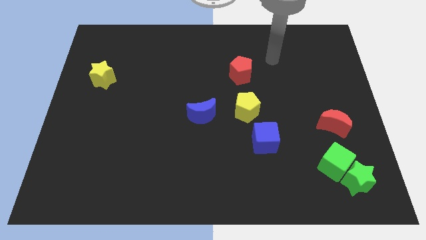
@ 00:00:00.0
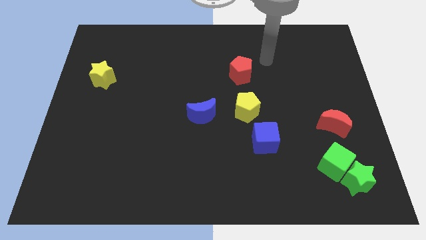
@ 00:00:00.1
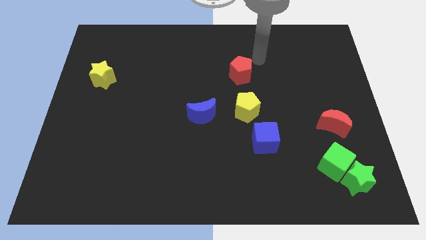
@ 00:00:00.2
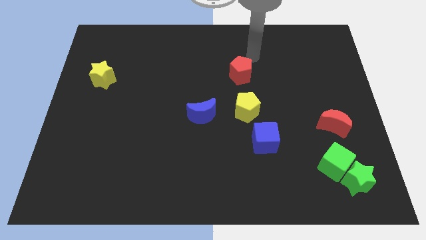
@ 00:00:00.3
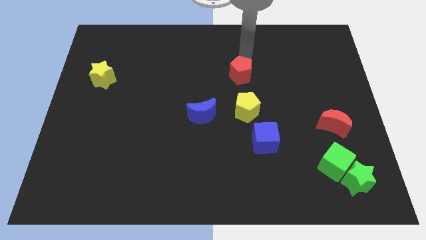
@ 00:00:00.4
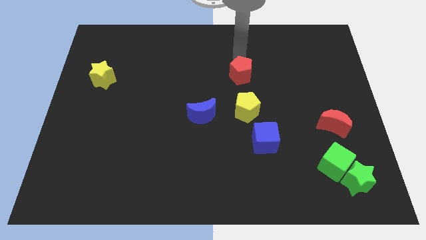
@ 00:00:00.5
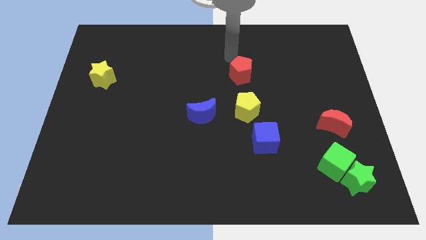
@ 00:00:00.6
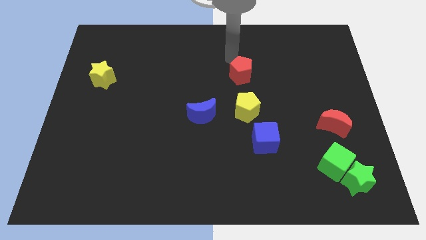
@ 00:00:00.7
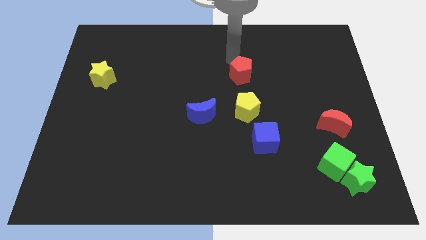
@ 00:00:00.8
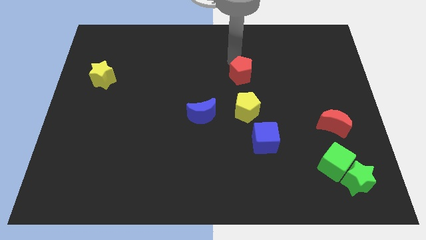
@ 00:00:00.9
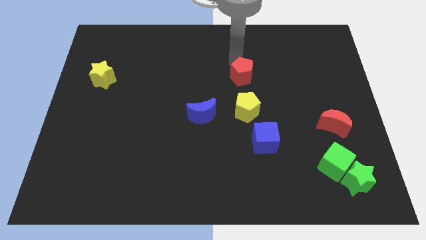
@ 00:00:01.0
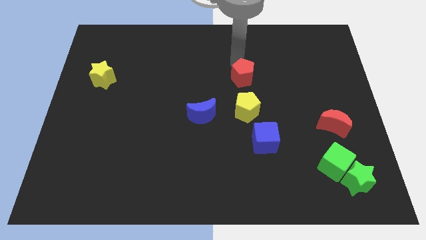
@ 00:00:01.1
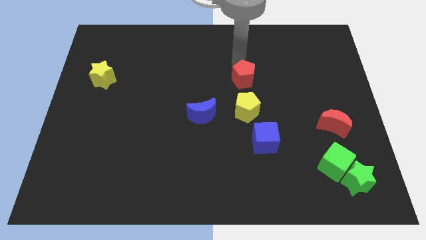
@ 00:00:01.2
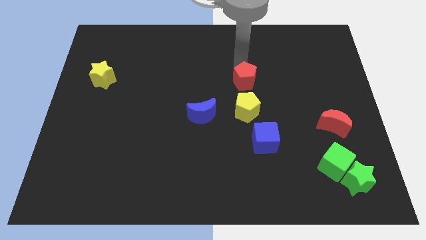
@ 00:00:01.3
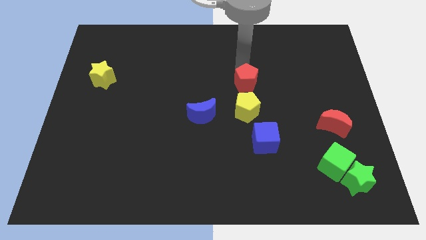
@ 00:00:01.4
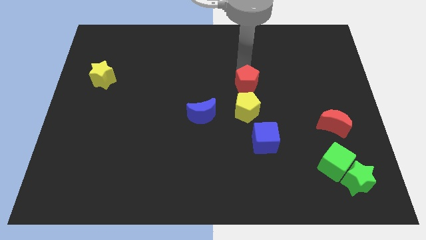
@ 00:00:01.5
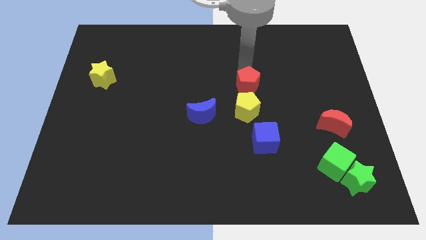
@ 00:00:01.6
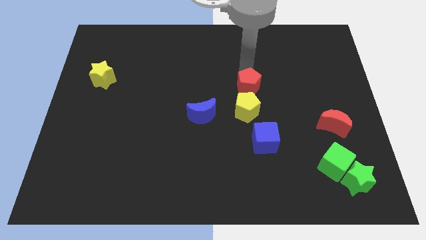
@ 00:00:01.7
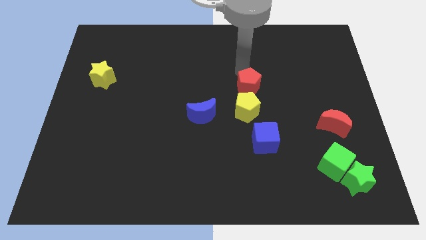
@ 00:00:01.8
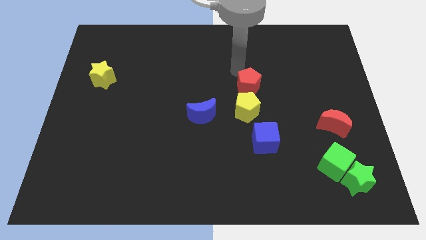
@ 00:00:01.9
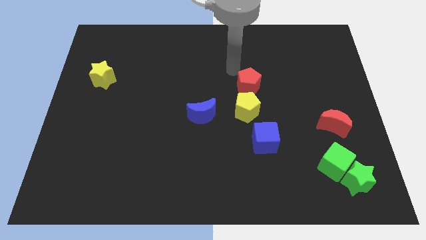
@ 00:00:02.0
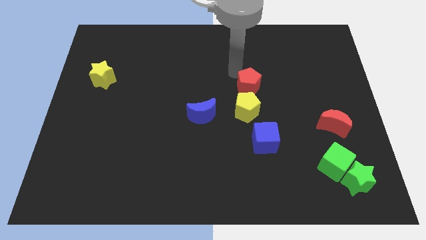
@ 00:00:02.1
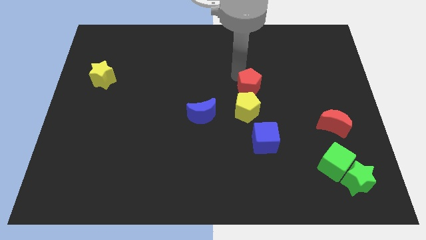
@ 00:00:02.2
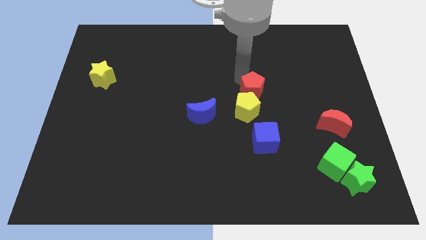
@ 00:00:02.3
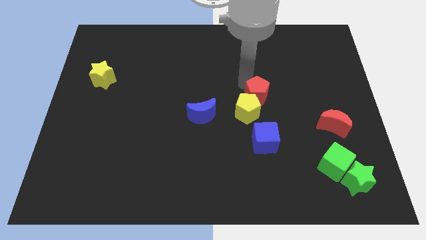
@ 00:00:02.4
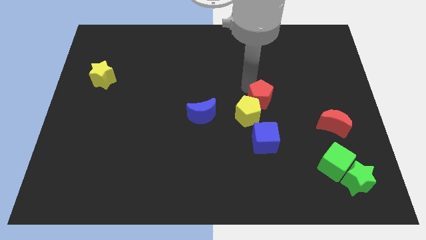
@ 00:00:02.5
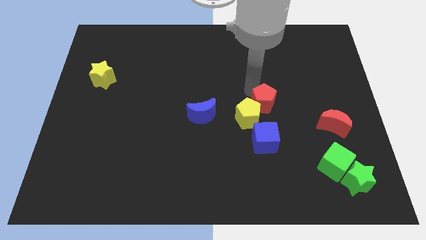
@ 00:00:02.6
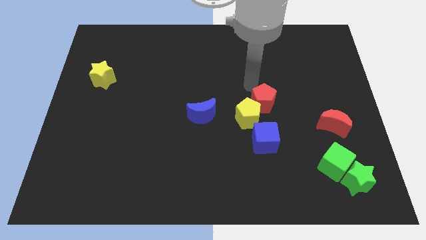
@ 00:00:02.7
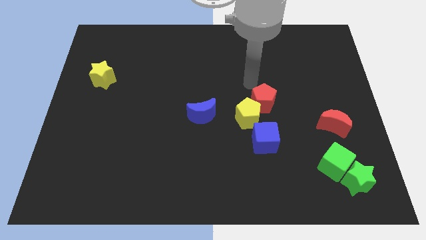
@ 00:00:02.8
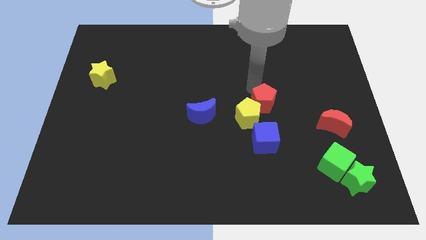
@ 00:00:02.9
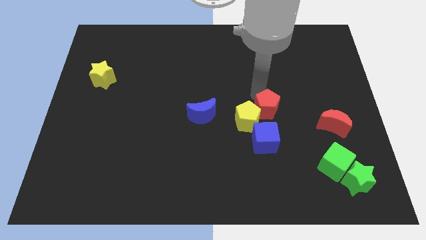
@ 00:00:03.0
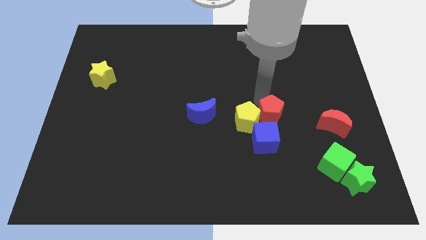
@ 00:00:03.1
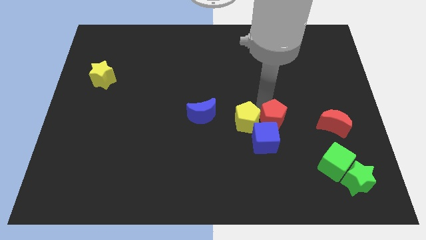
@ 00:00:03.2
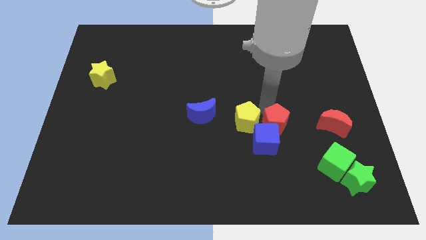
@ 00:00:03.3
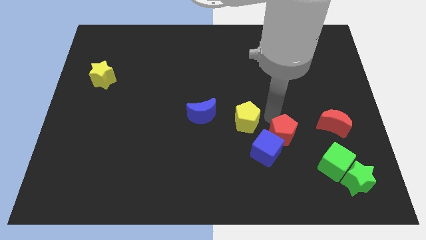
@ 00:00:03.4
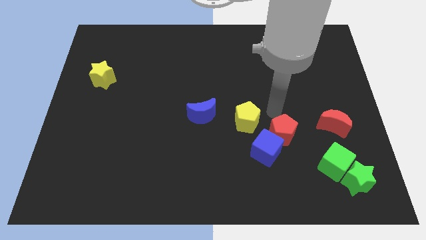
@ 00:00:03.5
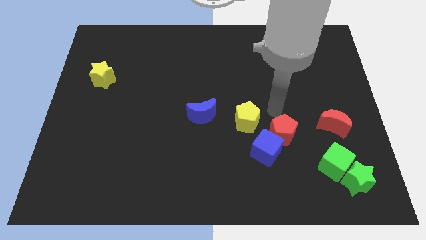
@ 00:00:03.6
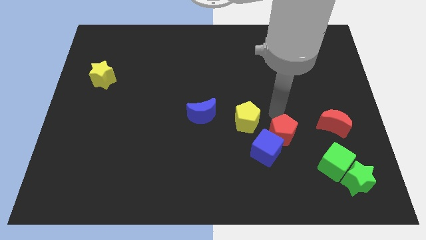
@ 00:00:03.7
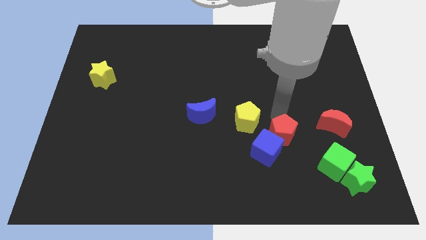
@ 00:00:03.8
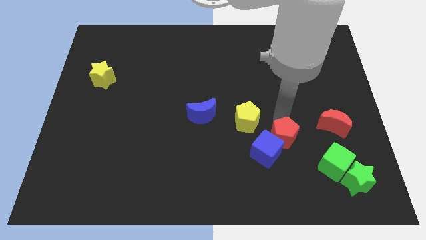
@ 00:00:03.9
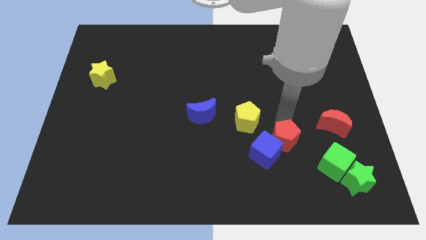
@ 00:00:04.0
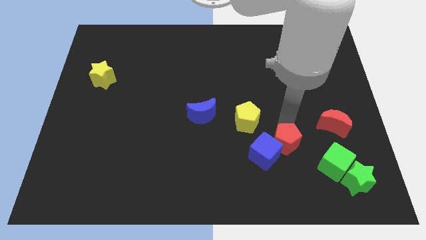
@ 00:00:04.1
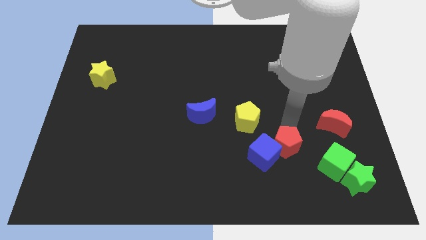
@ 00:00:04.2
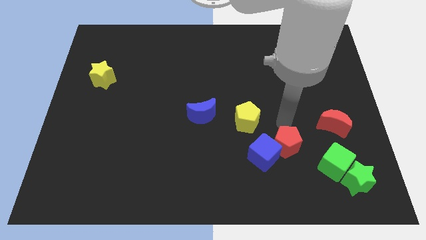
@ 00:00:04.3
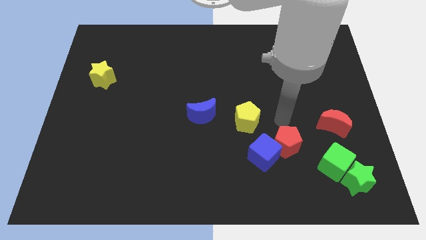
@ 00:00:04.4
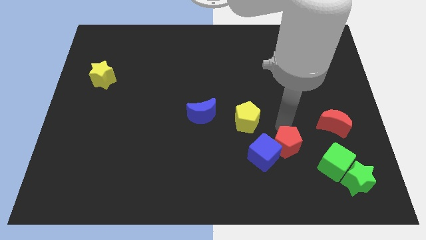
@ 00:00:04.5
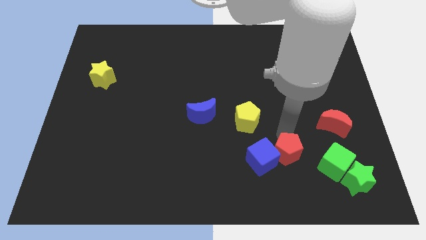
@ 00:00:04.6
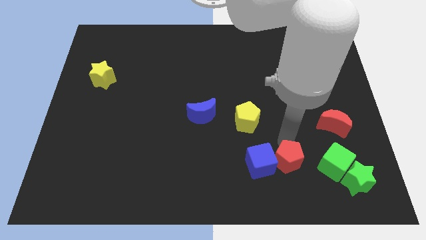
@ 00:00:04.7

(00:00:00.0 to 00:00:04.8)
put the red pentagon diagonally down and to the right of the blue cube

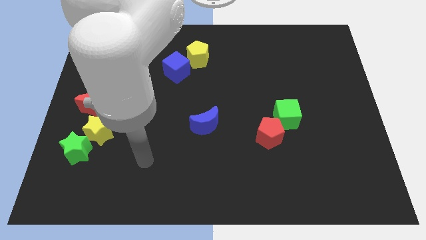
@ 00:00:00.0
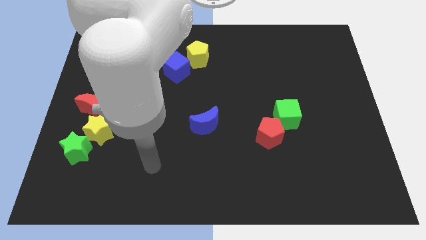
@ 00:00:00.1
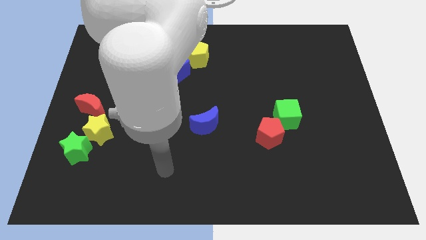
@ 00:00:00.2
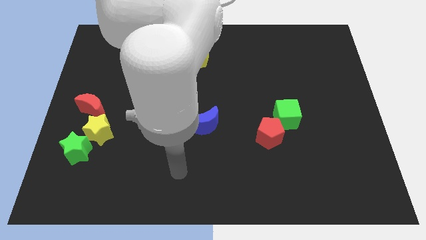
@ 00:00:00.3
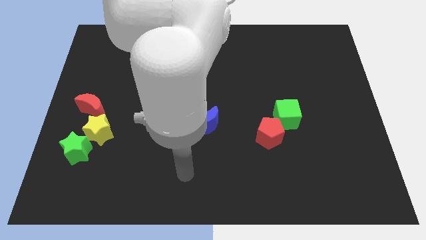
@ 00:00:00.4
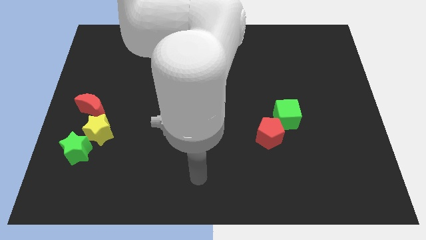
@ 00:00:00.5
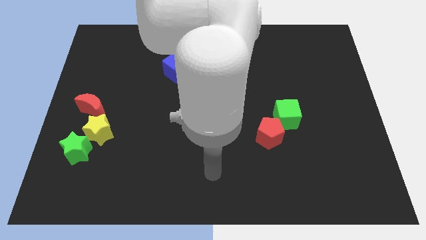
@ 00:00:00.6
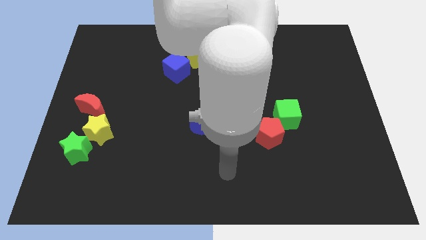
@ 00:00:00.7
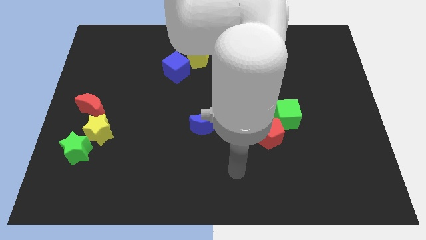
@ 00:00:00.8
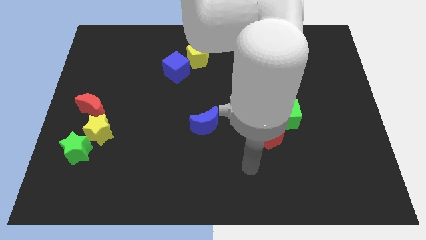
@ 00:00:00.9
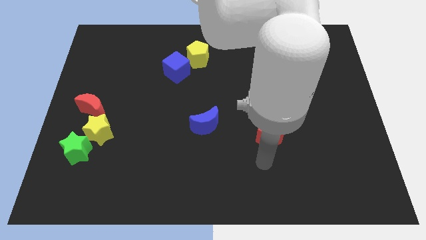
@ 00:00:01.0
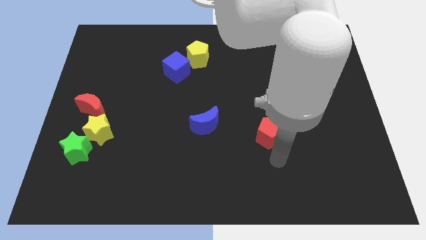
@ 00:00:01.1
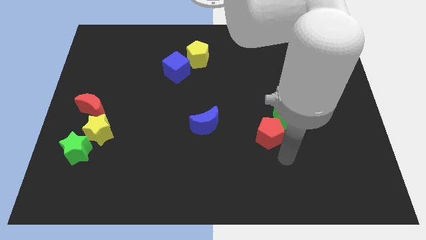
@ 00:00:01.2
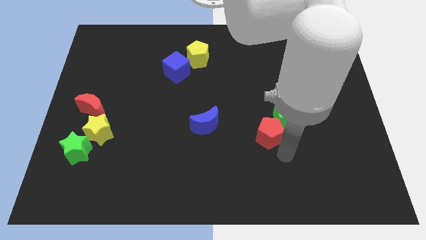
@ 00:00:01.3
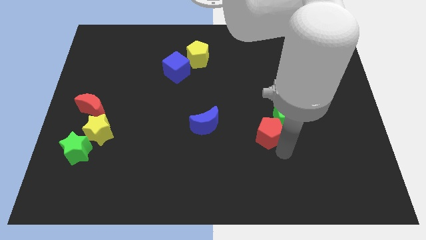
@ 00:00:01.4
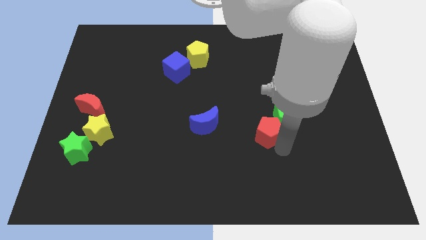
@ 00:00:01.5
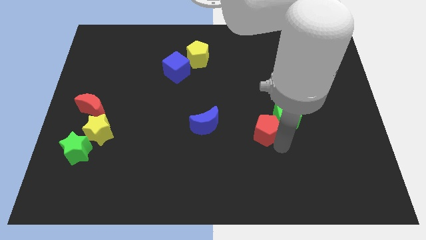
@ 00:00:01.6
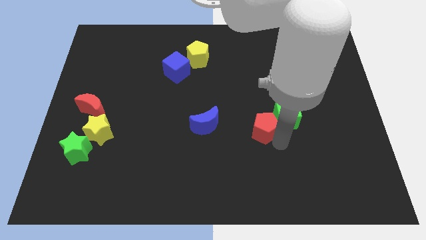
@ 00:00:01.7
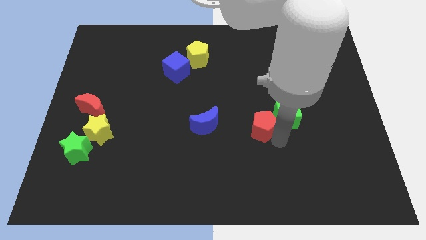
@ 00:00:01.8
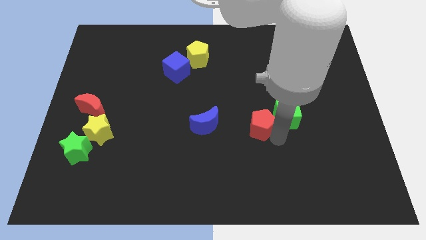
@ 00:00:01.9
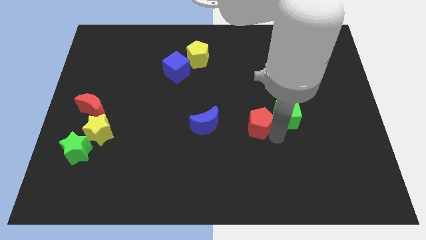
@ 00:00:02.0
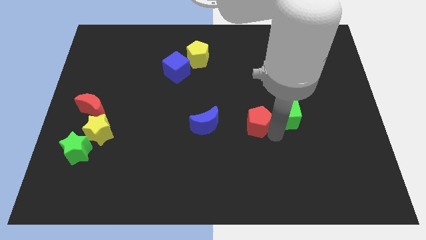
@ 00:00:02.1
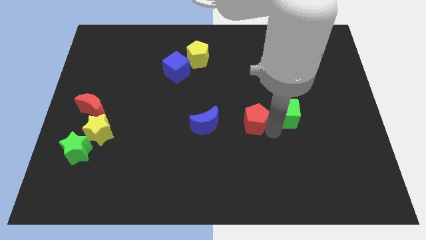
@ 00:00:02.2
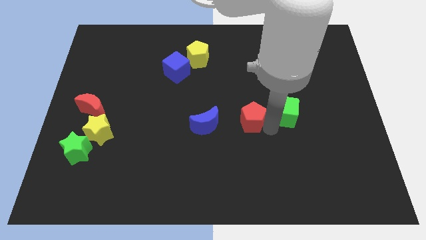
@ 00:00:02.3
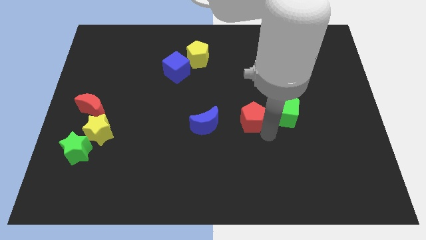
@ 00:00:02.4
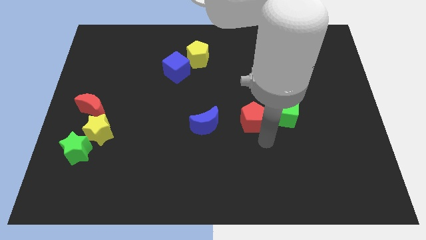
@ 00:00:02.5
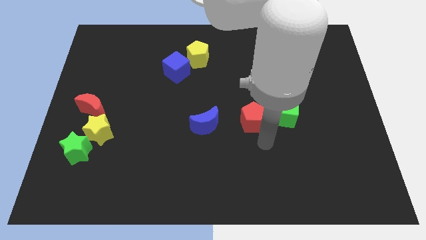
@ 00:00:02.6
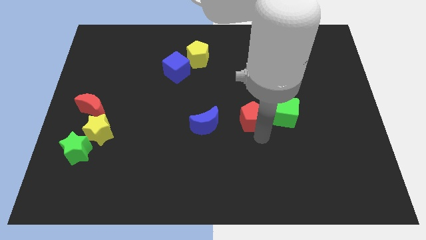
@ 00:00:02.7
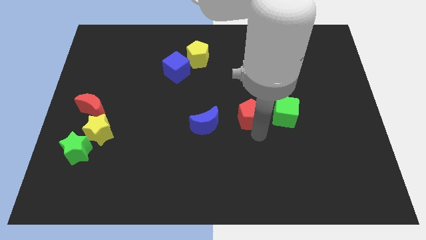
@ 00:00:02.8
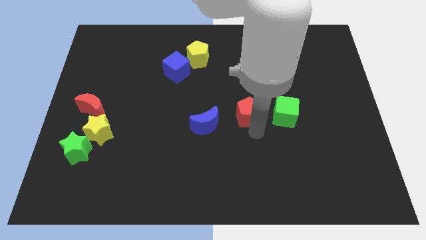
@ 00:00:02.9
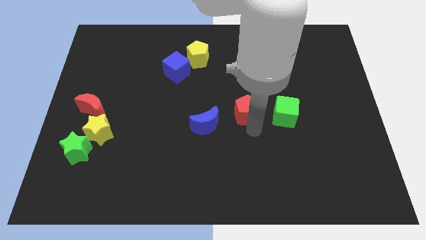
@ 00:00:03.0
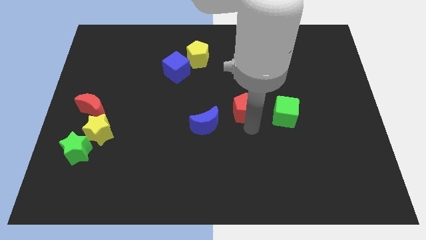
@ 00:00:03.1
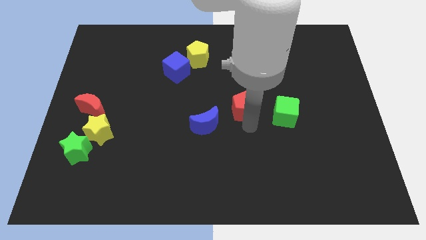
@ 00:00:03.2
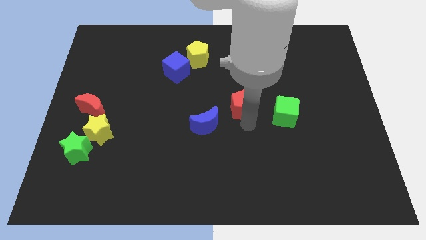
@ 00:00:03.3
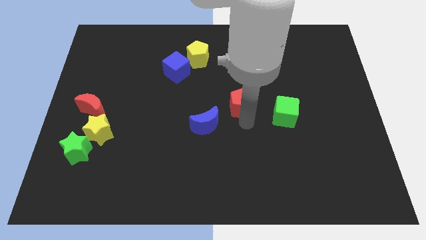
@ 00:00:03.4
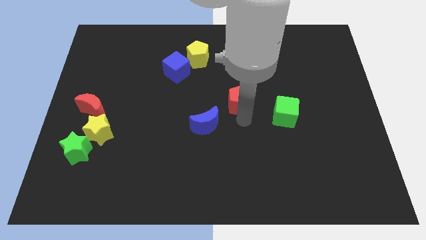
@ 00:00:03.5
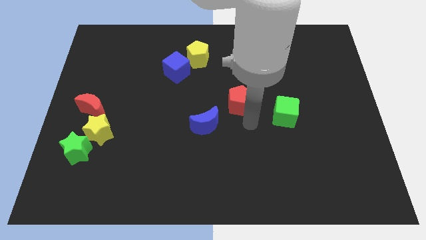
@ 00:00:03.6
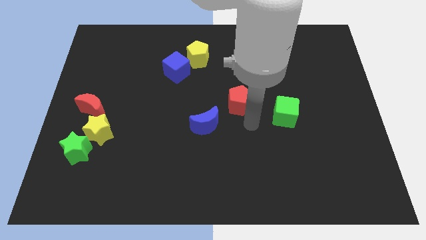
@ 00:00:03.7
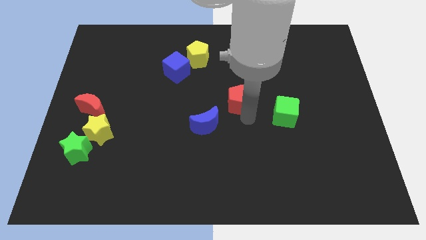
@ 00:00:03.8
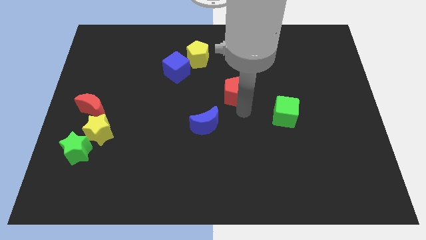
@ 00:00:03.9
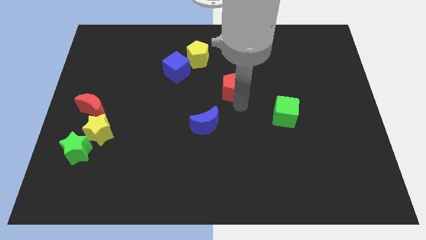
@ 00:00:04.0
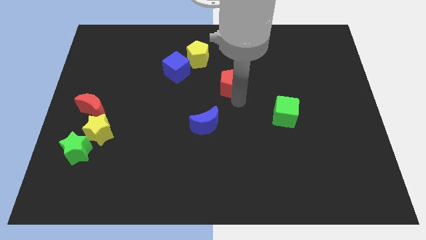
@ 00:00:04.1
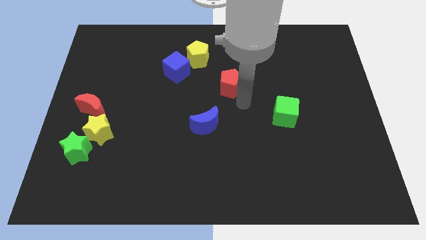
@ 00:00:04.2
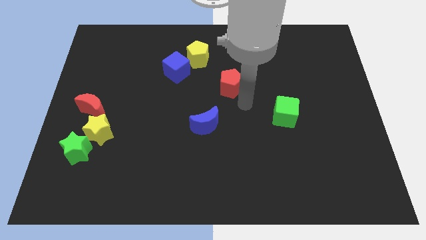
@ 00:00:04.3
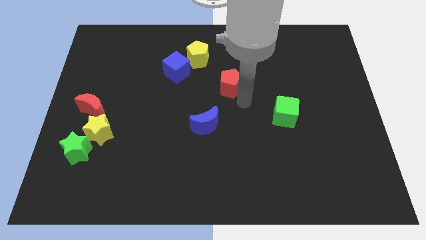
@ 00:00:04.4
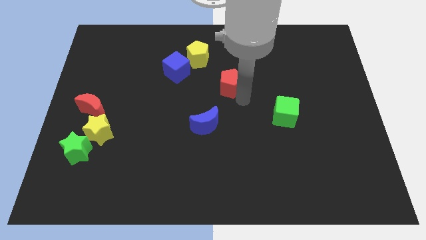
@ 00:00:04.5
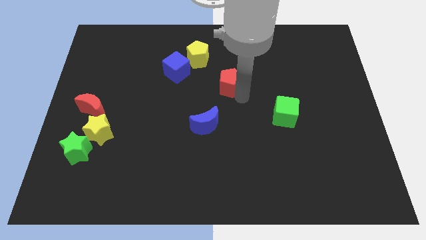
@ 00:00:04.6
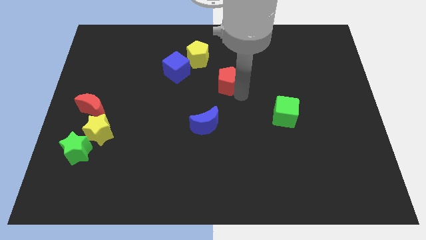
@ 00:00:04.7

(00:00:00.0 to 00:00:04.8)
slide the red pentagon just right of the blue cube
